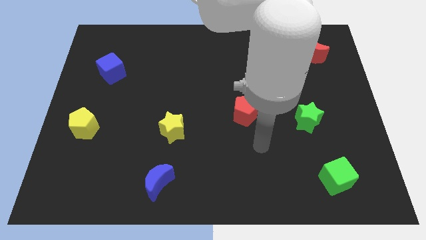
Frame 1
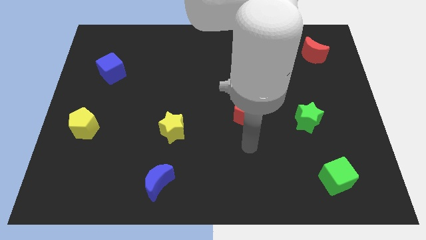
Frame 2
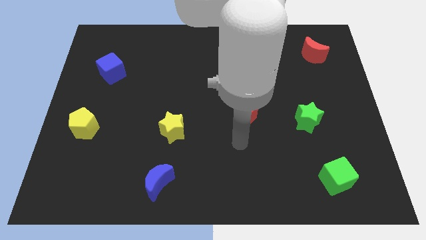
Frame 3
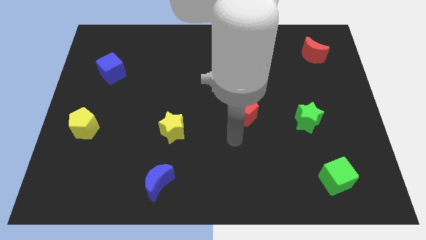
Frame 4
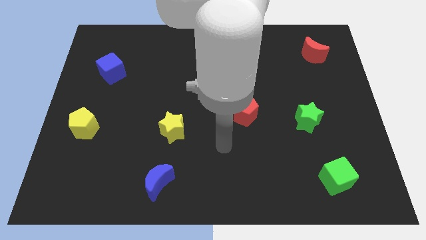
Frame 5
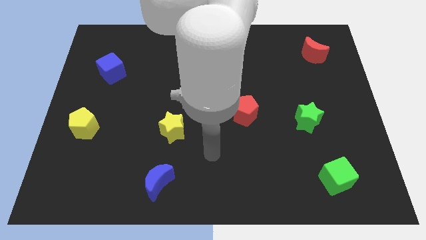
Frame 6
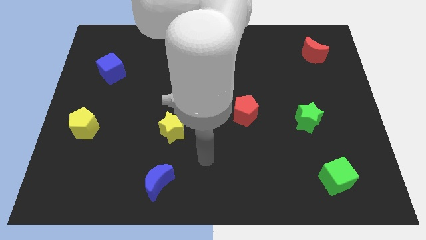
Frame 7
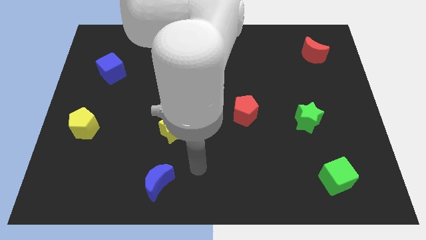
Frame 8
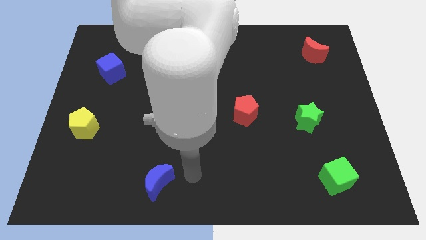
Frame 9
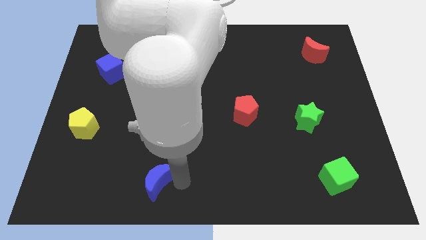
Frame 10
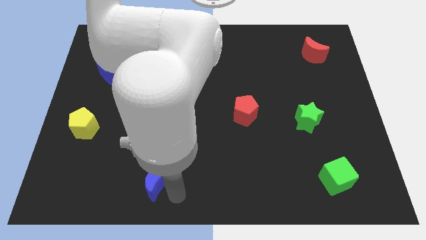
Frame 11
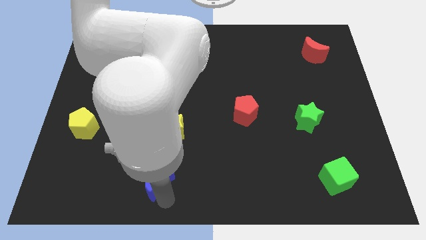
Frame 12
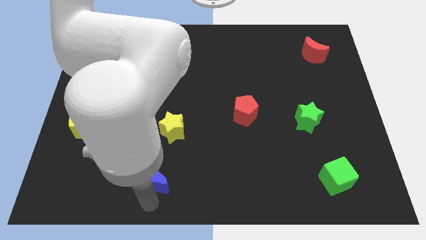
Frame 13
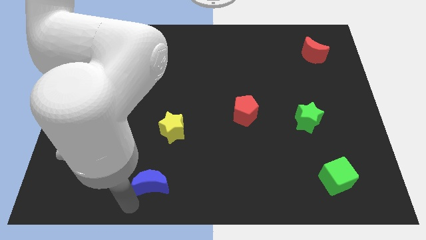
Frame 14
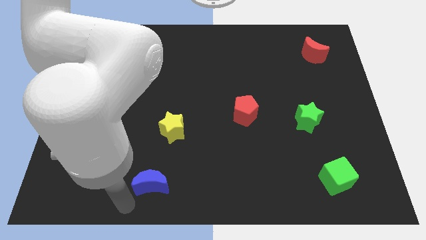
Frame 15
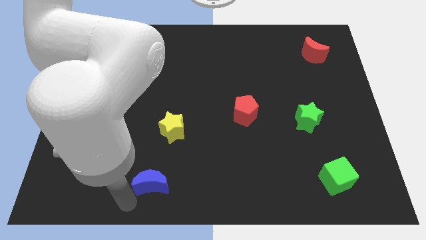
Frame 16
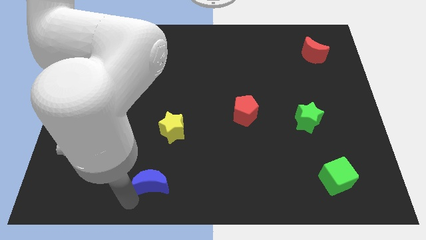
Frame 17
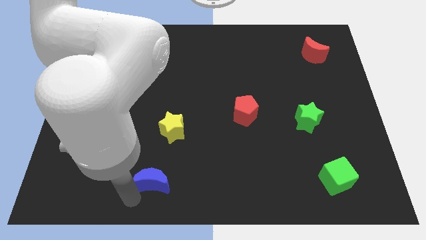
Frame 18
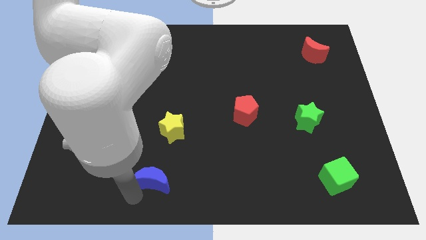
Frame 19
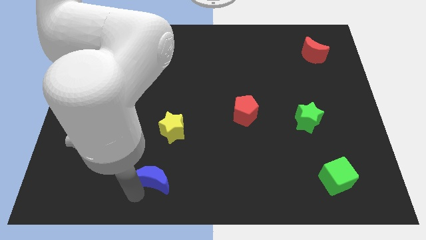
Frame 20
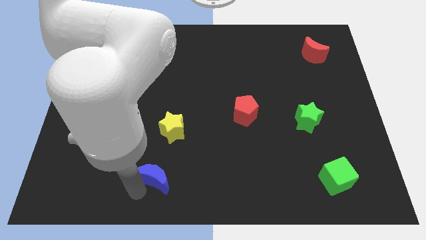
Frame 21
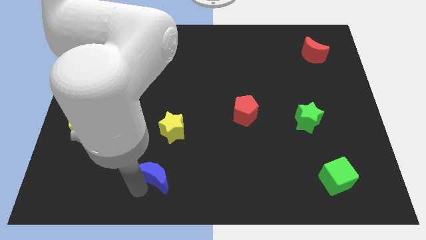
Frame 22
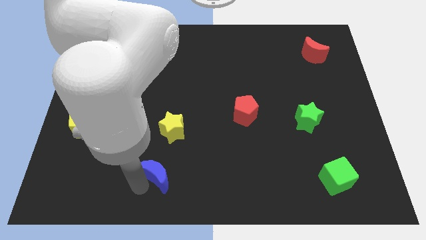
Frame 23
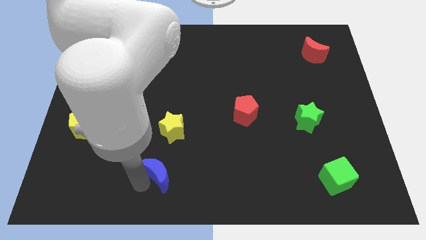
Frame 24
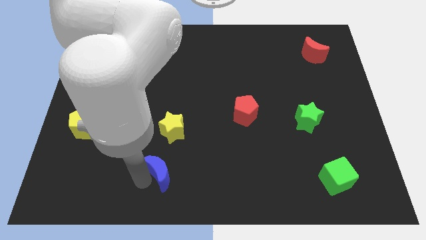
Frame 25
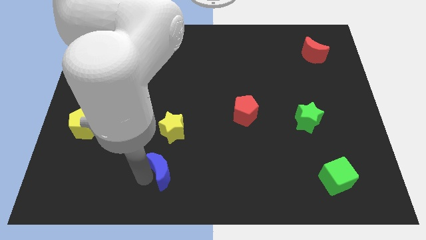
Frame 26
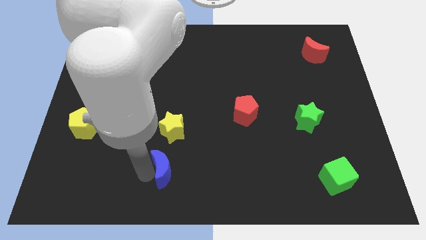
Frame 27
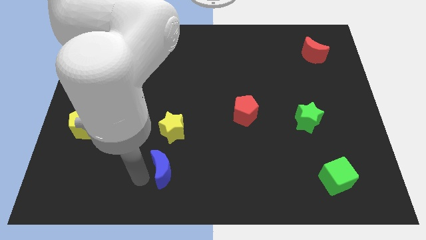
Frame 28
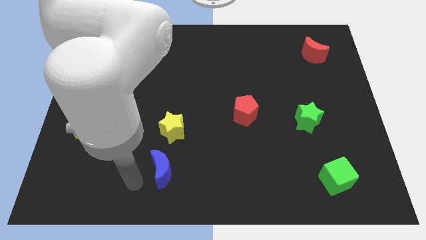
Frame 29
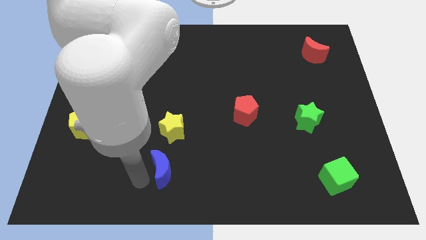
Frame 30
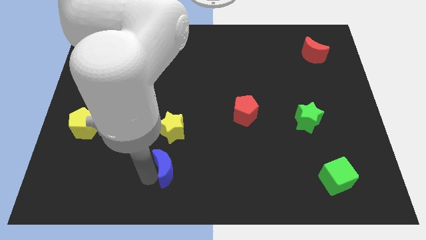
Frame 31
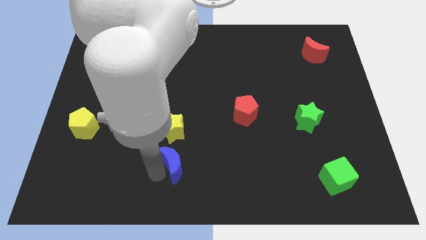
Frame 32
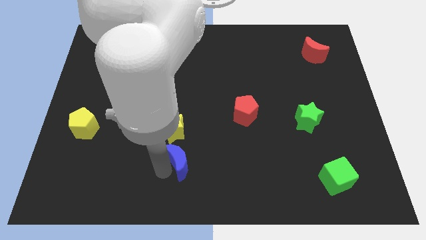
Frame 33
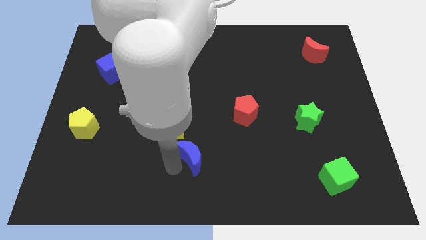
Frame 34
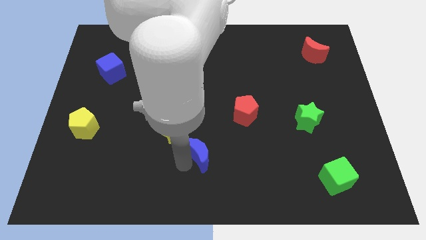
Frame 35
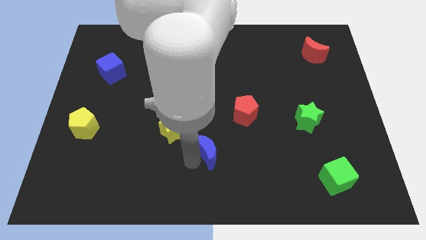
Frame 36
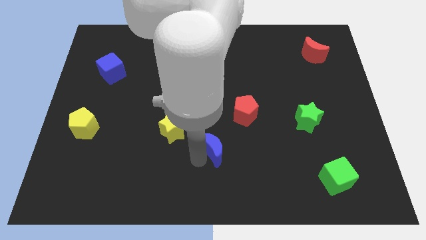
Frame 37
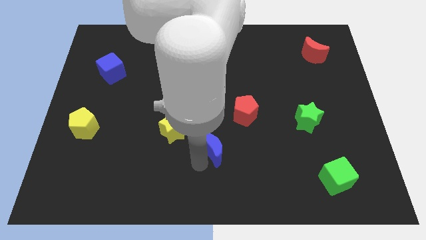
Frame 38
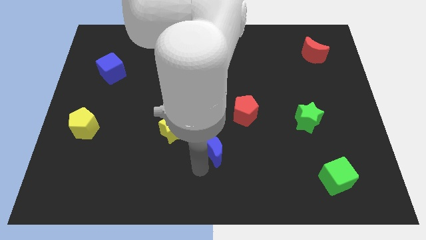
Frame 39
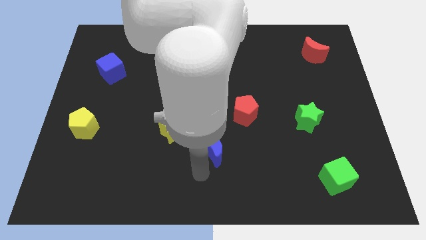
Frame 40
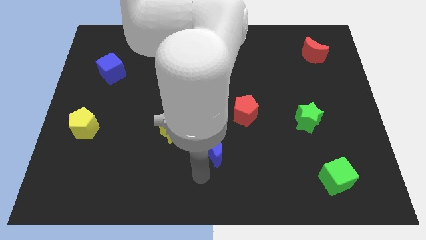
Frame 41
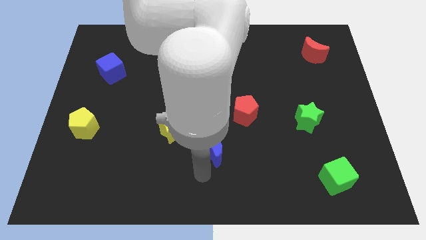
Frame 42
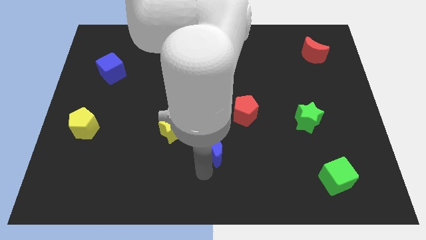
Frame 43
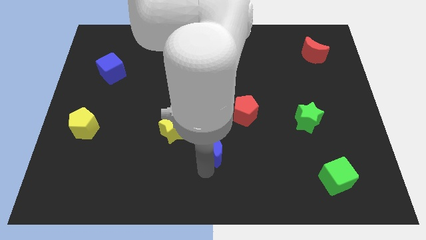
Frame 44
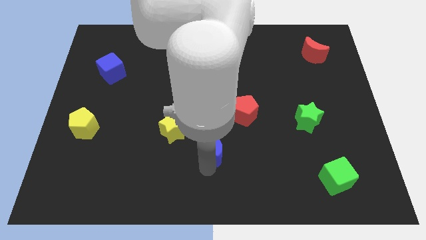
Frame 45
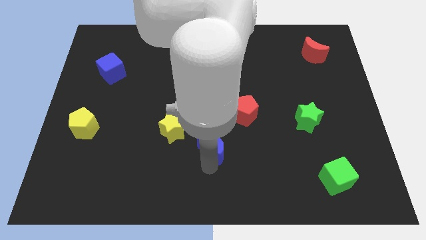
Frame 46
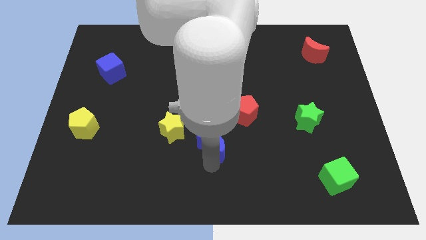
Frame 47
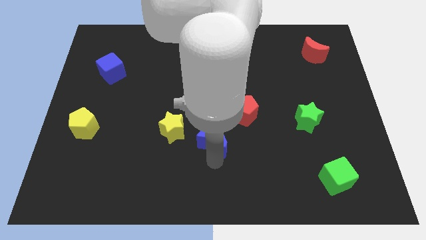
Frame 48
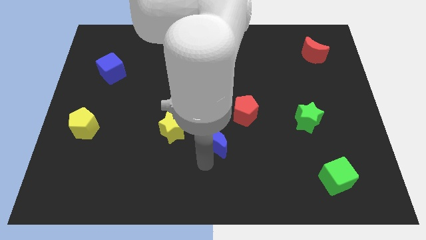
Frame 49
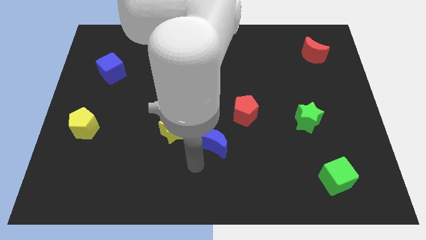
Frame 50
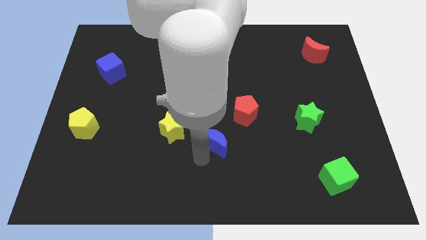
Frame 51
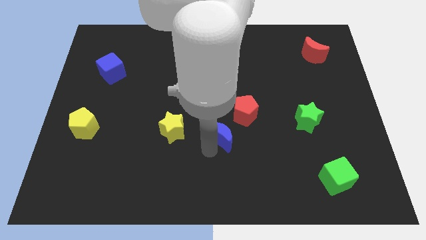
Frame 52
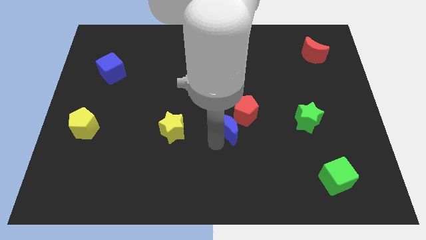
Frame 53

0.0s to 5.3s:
slide the blue moon to the red pentagon

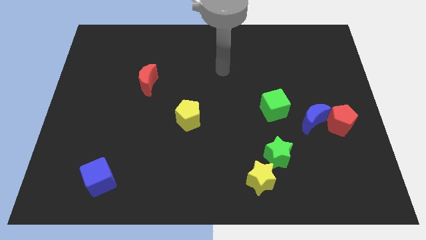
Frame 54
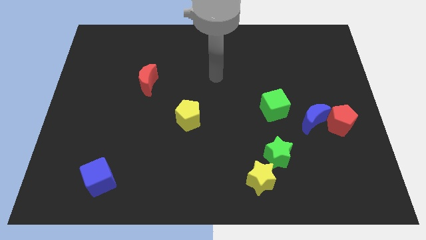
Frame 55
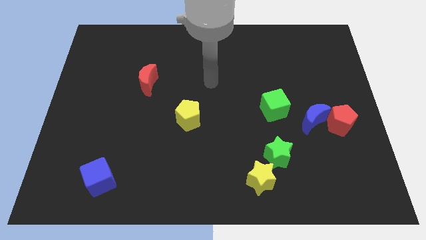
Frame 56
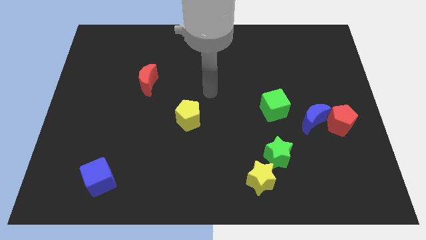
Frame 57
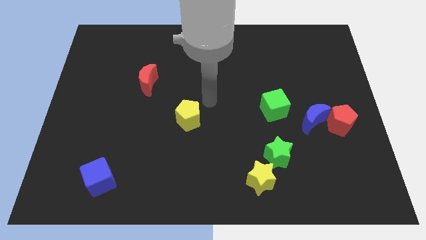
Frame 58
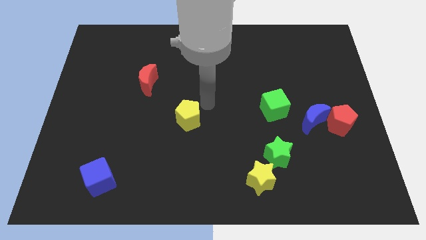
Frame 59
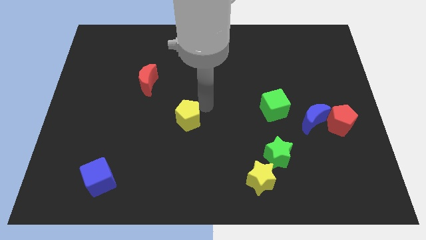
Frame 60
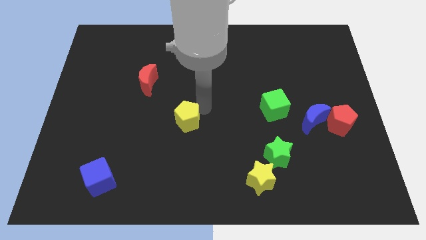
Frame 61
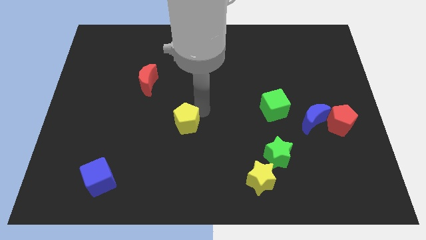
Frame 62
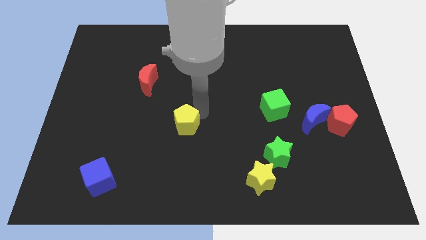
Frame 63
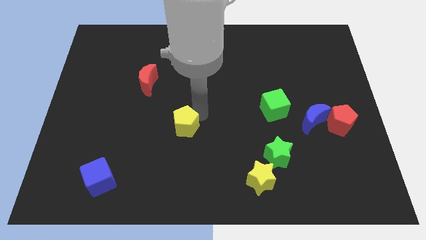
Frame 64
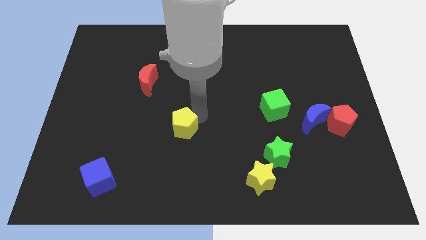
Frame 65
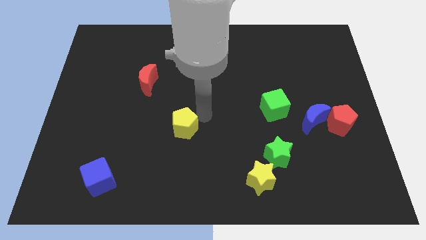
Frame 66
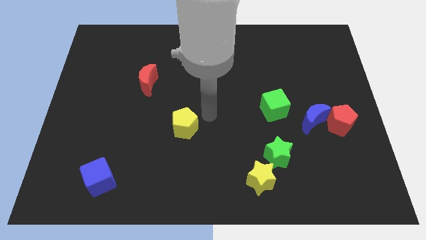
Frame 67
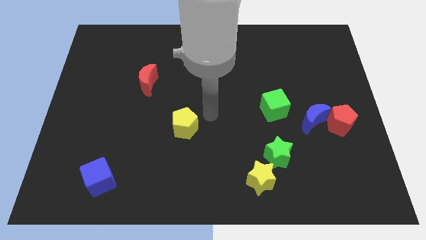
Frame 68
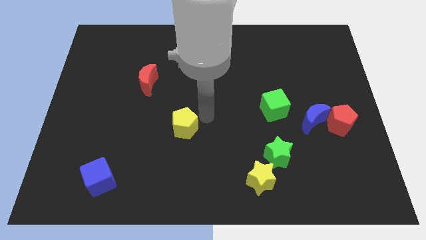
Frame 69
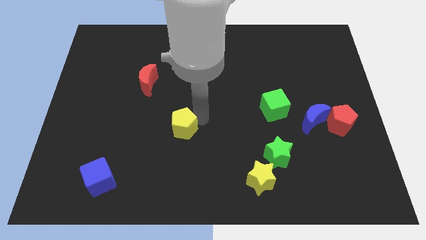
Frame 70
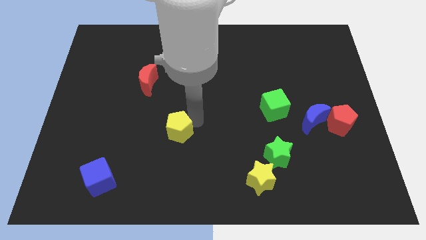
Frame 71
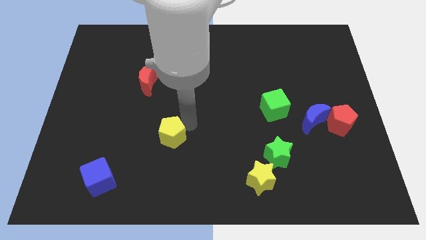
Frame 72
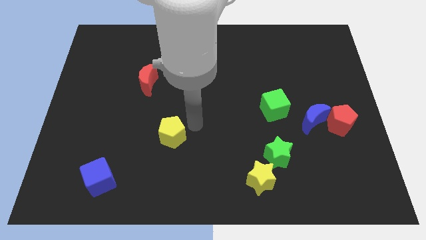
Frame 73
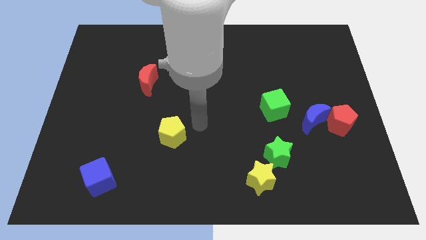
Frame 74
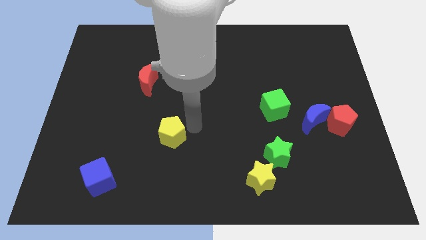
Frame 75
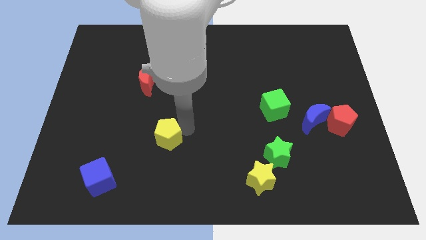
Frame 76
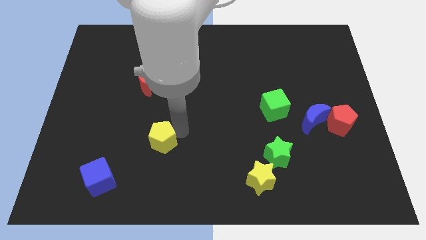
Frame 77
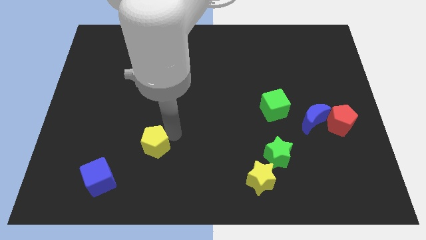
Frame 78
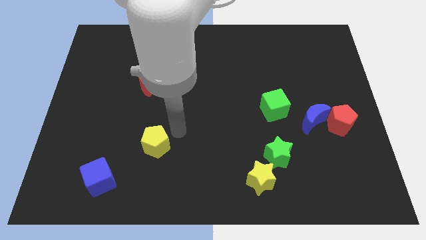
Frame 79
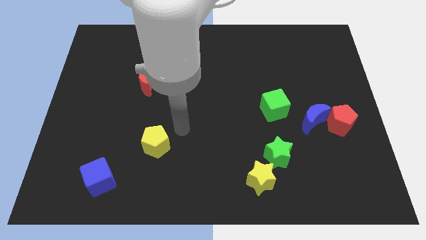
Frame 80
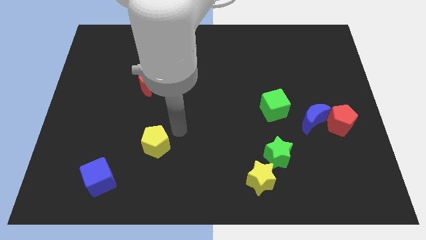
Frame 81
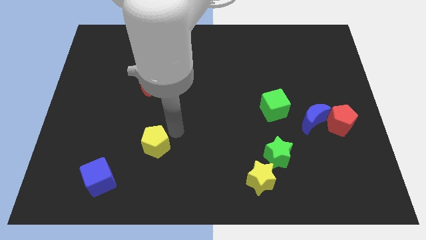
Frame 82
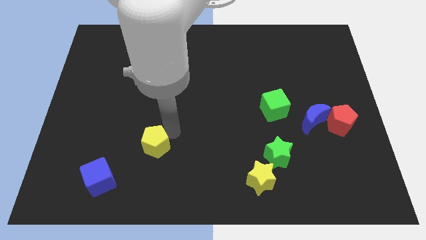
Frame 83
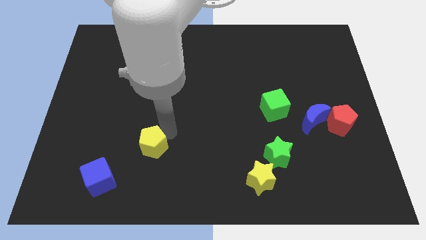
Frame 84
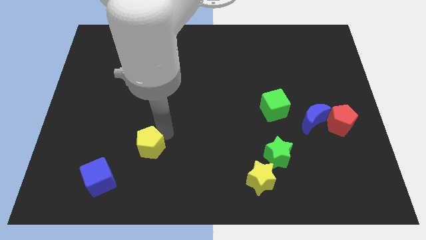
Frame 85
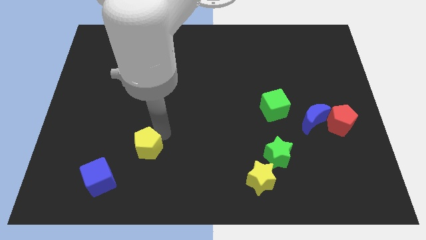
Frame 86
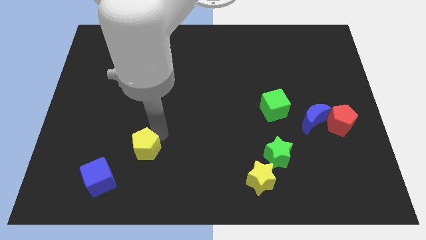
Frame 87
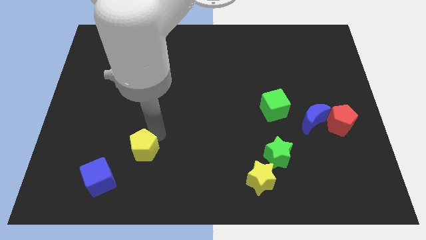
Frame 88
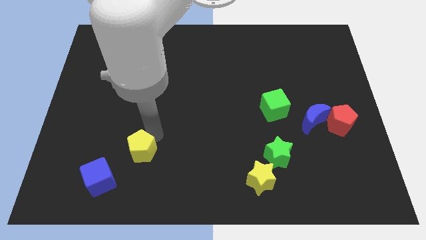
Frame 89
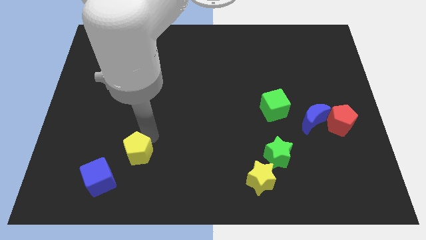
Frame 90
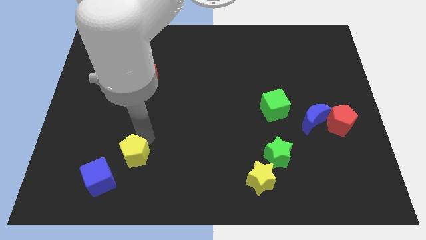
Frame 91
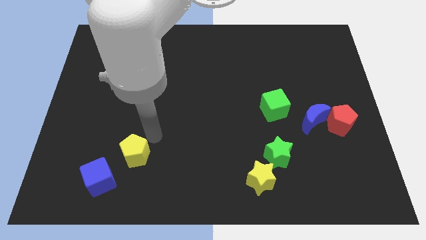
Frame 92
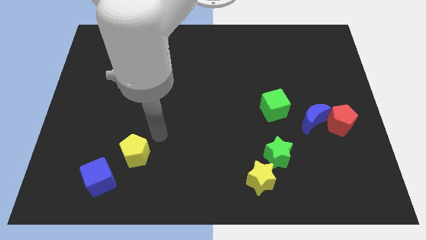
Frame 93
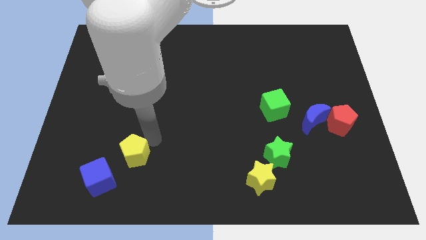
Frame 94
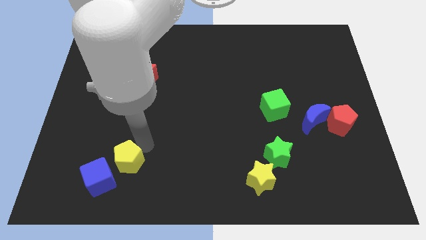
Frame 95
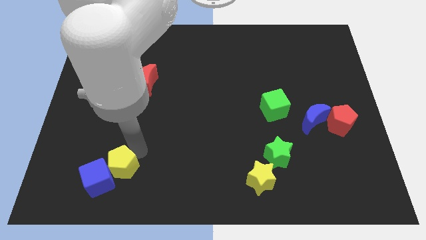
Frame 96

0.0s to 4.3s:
slide the yellow pentagon towards the blue cube
